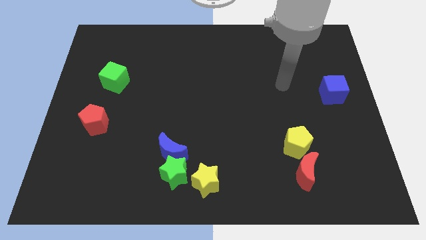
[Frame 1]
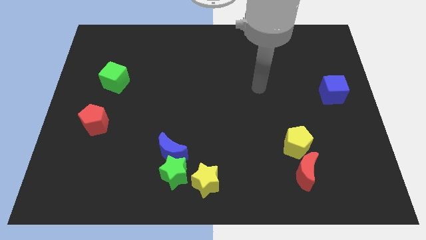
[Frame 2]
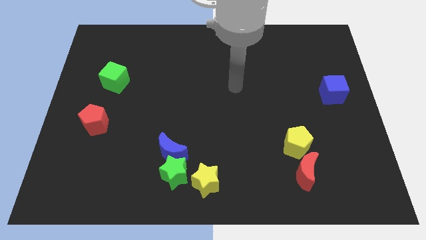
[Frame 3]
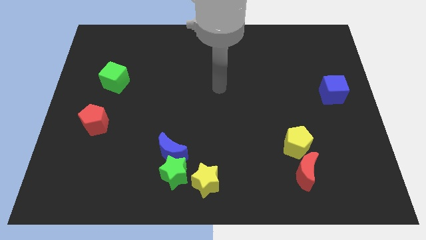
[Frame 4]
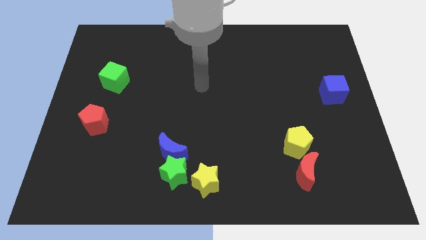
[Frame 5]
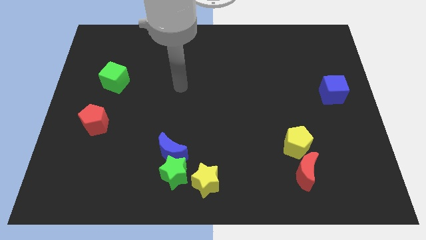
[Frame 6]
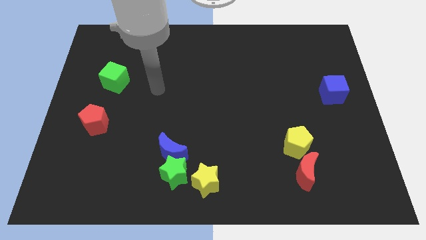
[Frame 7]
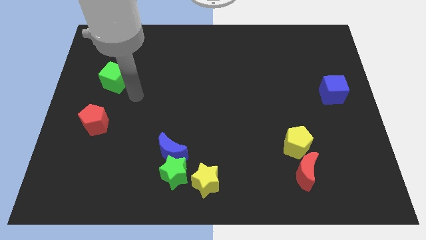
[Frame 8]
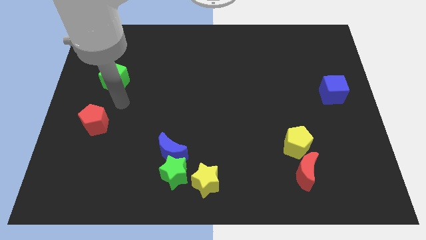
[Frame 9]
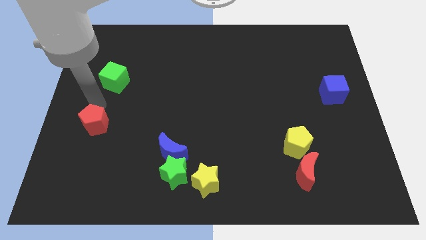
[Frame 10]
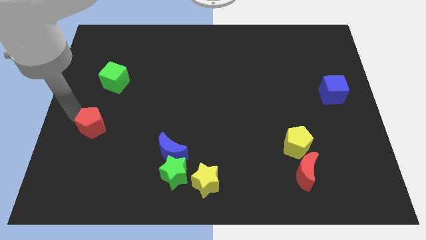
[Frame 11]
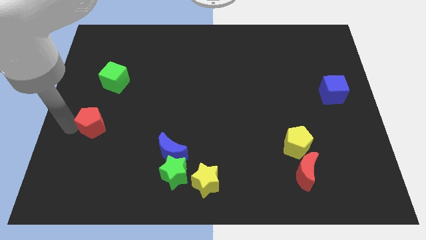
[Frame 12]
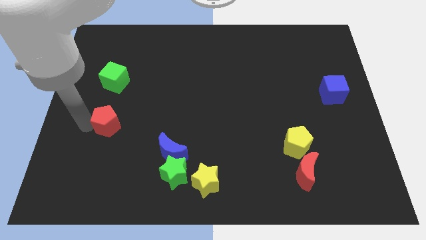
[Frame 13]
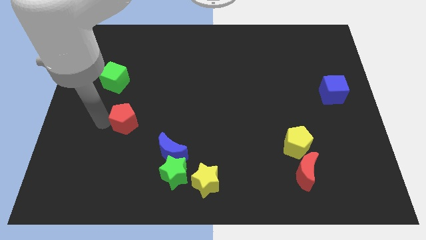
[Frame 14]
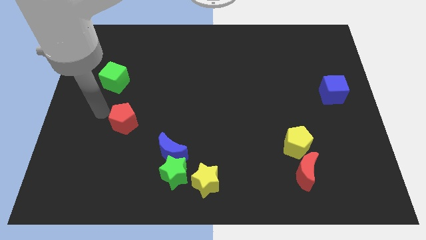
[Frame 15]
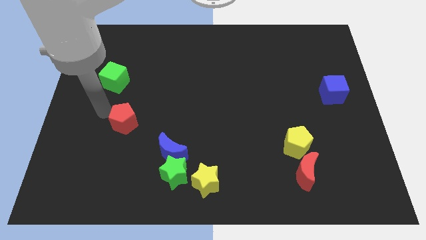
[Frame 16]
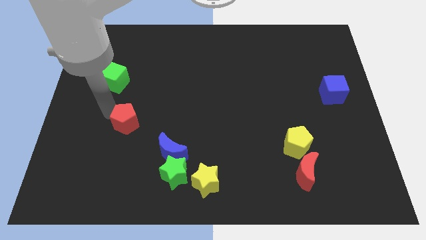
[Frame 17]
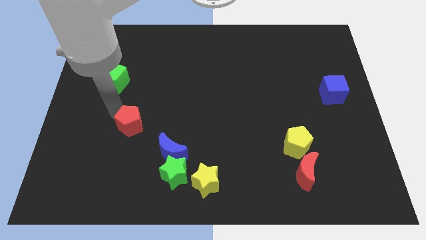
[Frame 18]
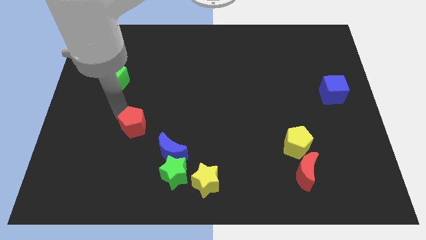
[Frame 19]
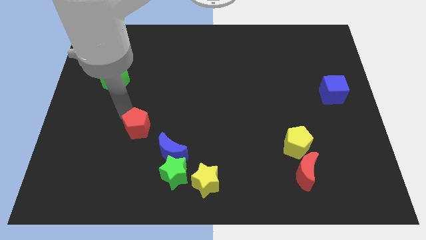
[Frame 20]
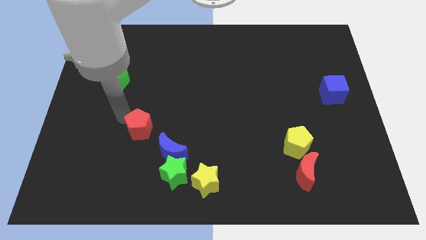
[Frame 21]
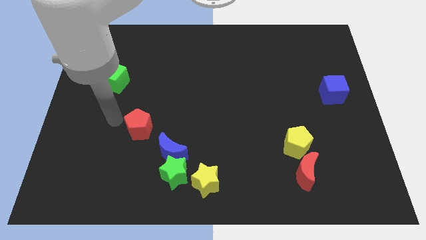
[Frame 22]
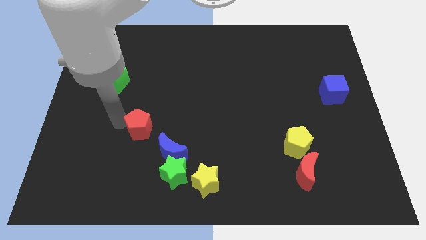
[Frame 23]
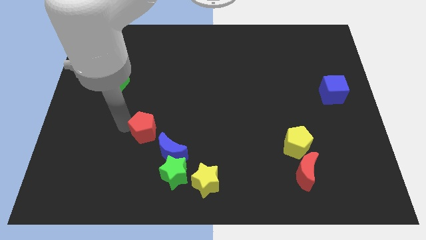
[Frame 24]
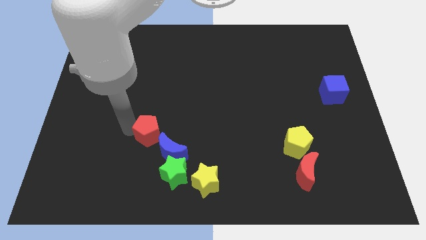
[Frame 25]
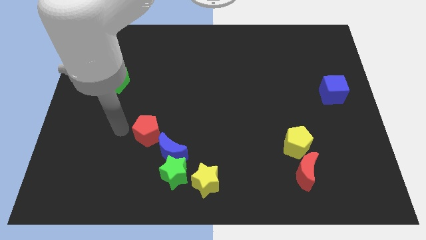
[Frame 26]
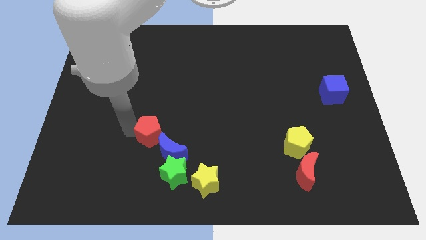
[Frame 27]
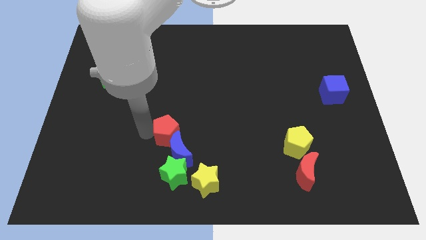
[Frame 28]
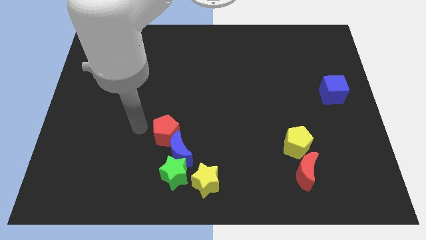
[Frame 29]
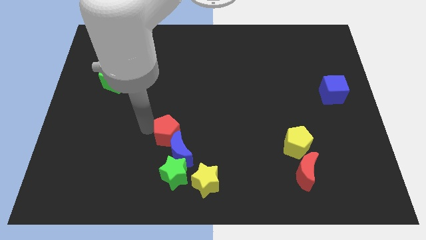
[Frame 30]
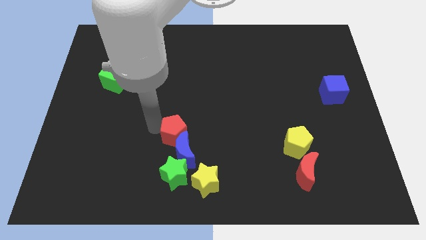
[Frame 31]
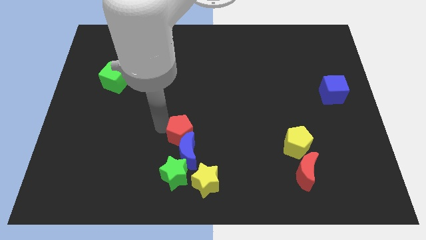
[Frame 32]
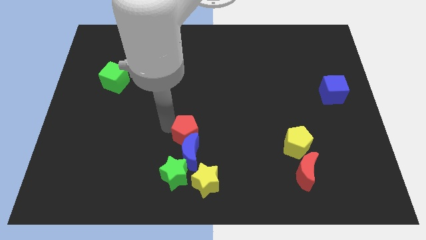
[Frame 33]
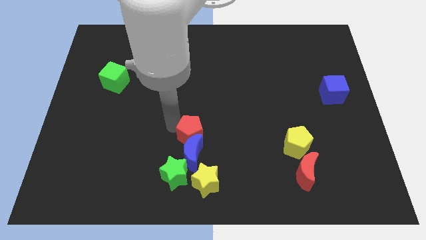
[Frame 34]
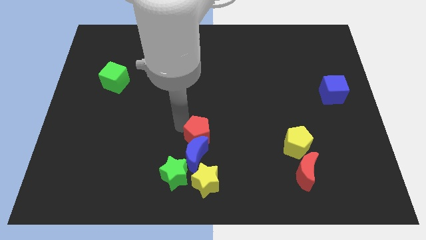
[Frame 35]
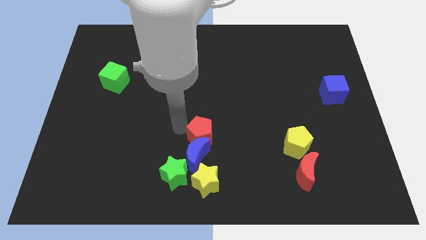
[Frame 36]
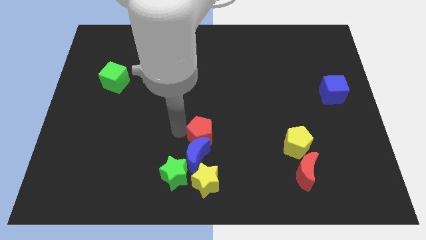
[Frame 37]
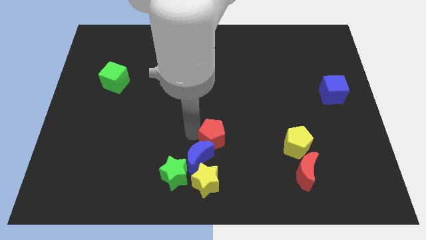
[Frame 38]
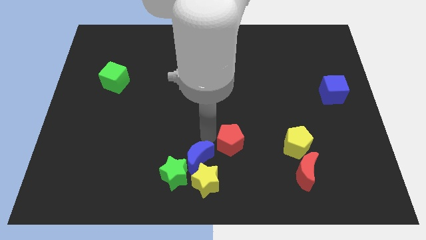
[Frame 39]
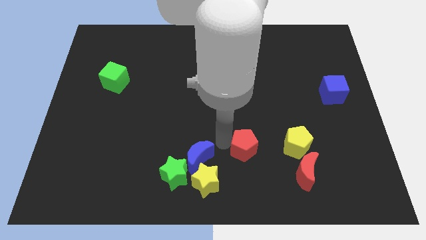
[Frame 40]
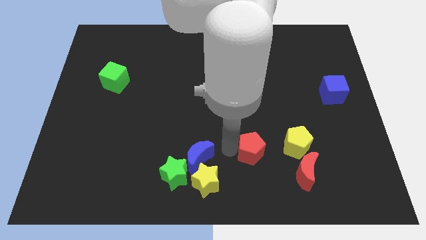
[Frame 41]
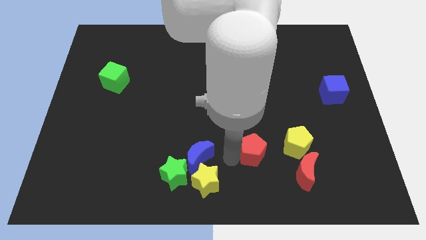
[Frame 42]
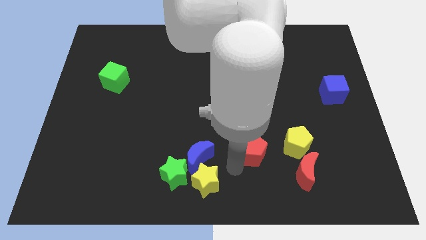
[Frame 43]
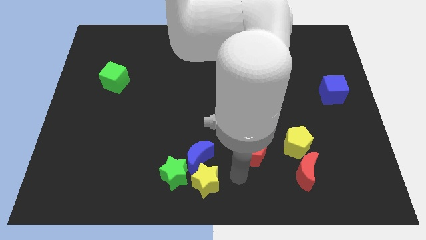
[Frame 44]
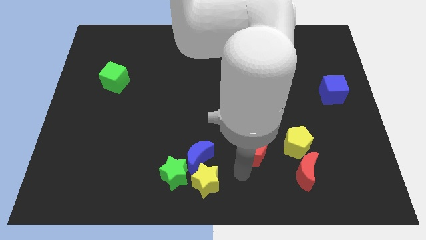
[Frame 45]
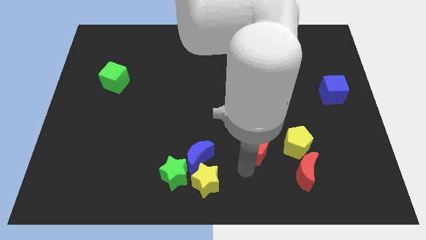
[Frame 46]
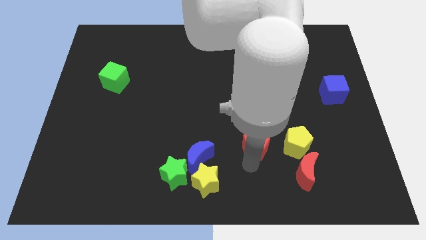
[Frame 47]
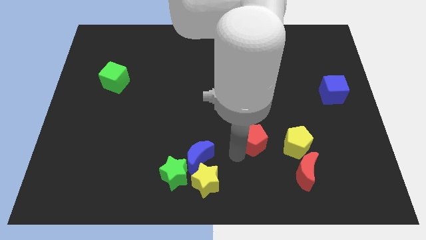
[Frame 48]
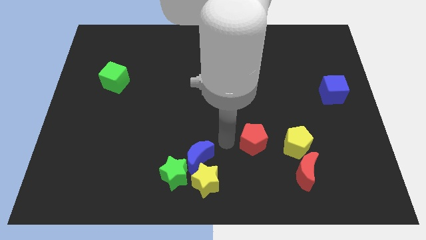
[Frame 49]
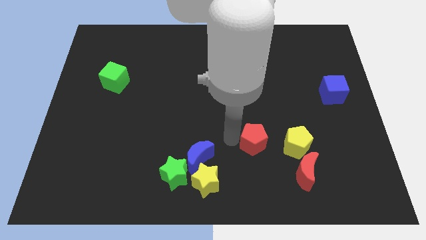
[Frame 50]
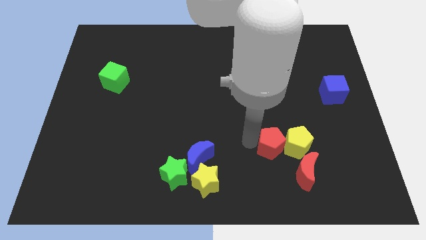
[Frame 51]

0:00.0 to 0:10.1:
slide the red pentagon next to the yellow pentagon
